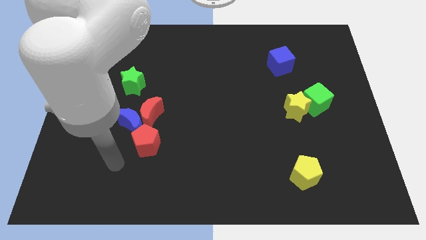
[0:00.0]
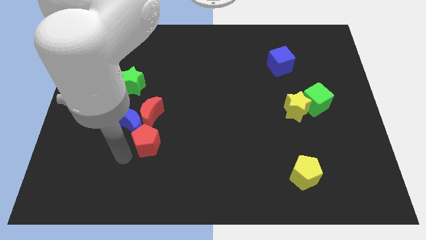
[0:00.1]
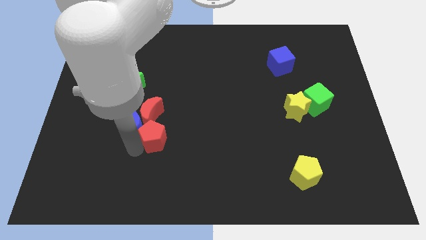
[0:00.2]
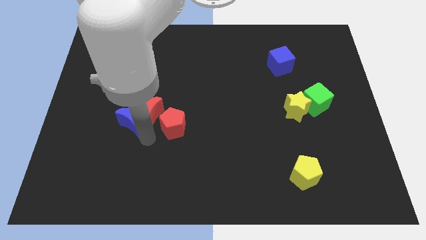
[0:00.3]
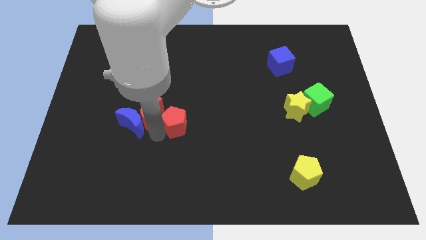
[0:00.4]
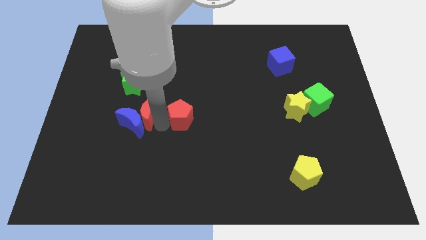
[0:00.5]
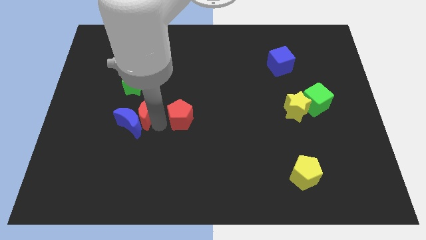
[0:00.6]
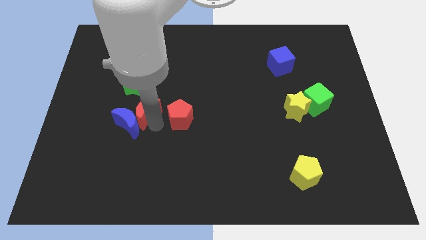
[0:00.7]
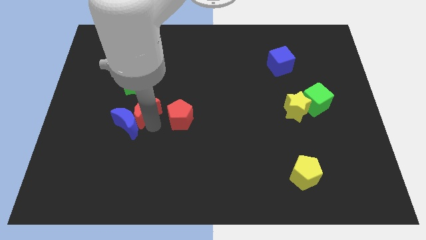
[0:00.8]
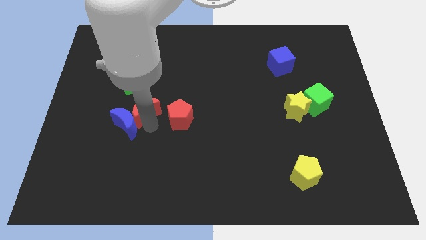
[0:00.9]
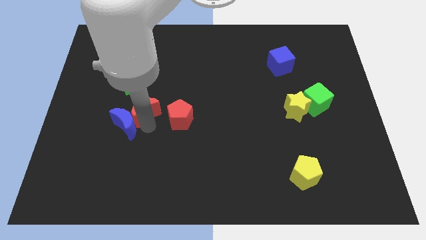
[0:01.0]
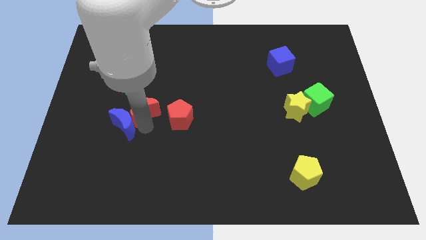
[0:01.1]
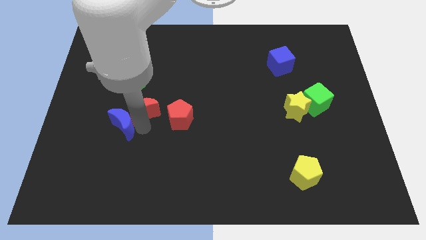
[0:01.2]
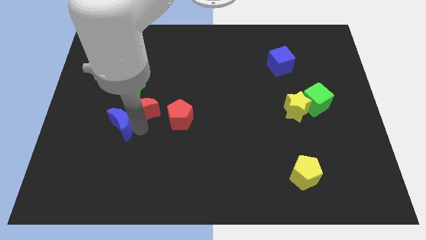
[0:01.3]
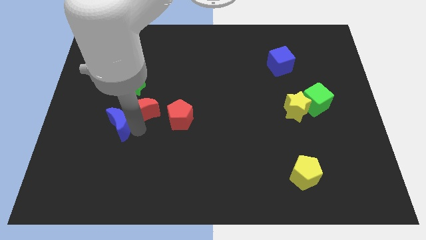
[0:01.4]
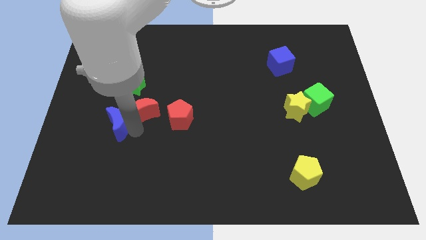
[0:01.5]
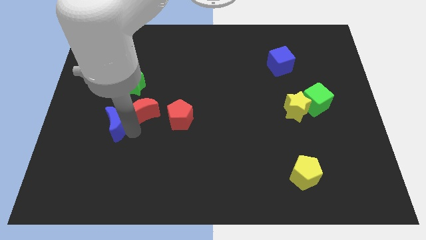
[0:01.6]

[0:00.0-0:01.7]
move the blue moon away from the red moon and red pentagon

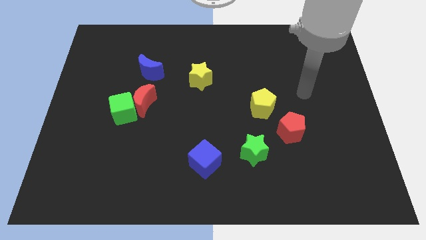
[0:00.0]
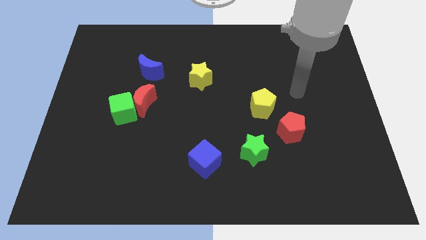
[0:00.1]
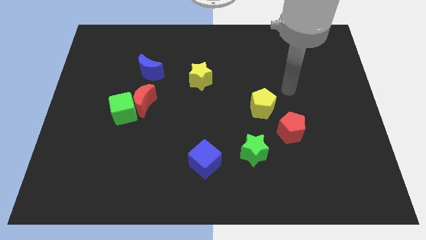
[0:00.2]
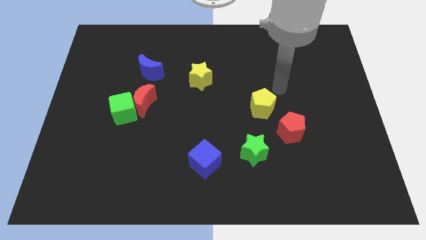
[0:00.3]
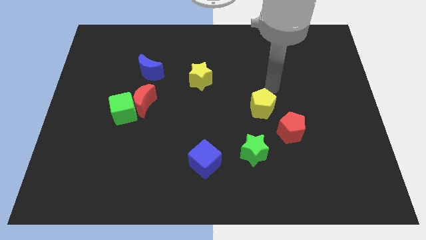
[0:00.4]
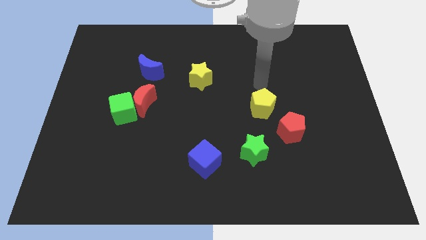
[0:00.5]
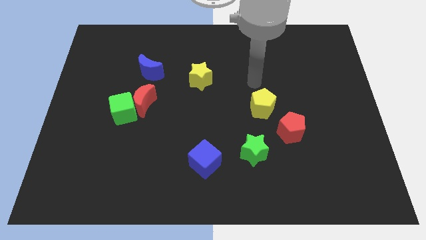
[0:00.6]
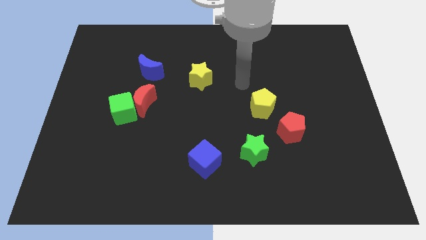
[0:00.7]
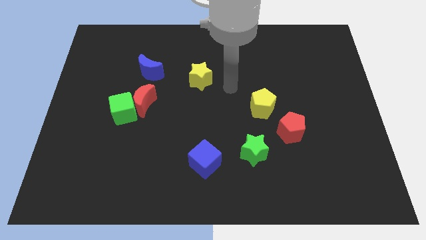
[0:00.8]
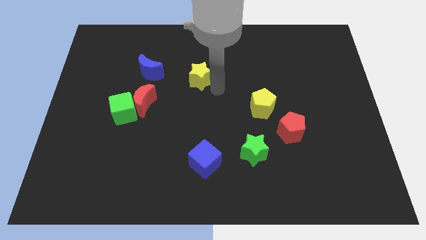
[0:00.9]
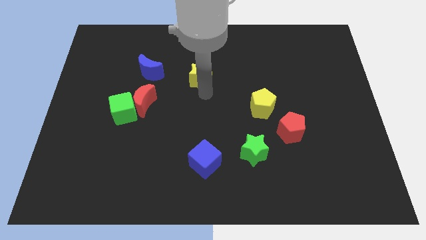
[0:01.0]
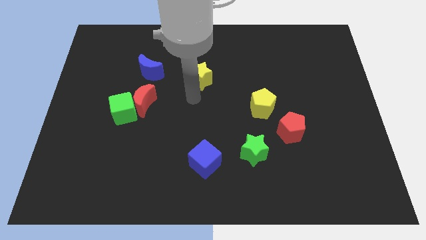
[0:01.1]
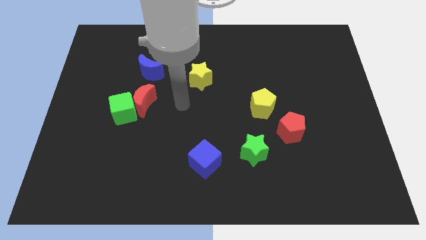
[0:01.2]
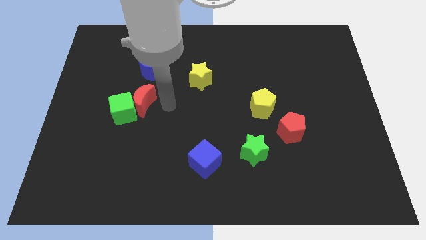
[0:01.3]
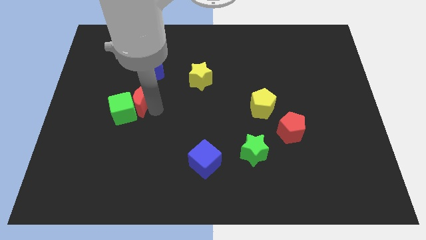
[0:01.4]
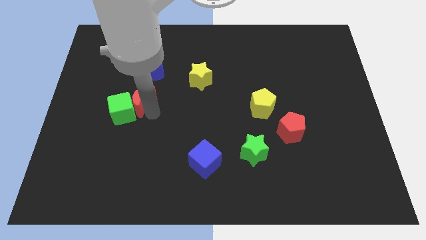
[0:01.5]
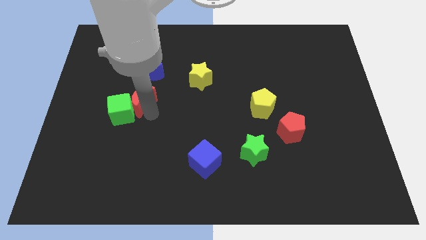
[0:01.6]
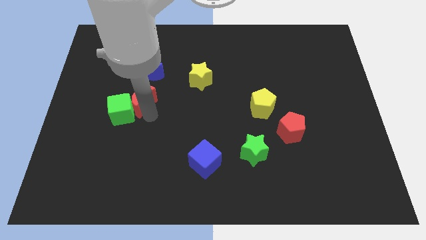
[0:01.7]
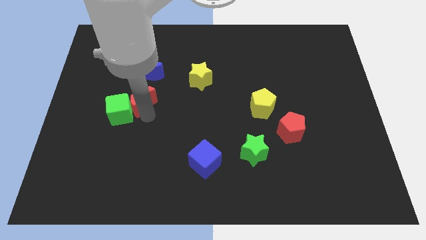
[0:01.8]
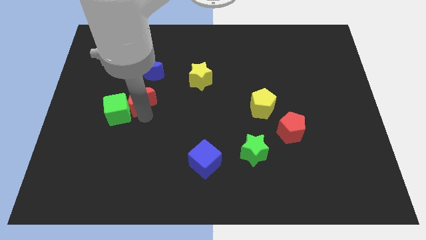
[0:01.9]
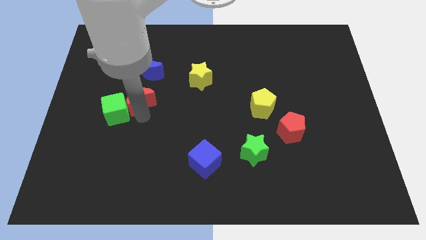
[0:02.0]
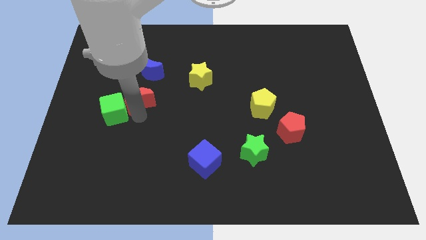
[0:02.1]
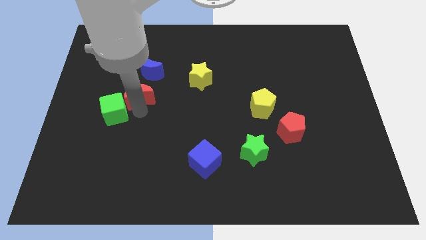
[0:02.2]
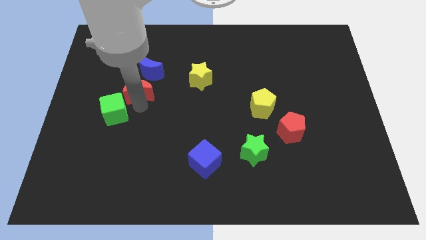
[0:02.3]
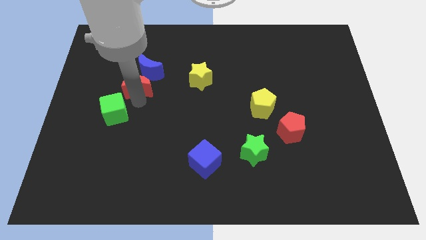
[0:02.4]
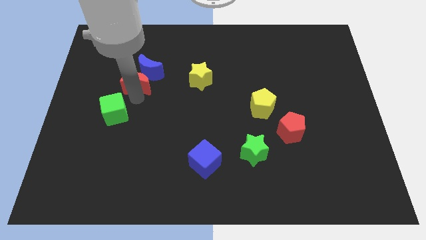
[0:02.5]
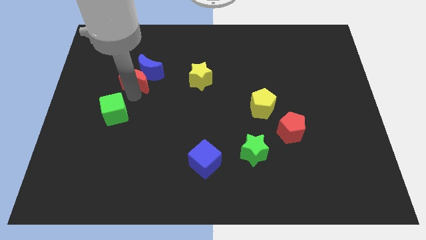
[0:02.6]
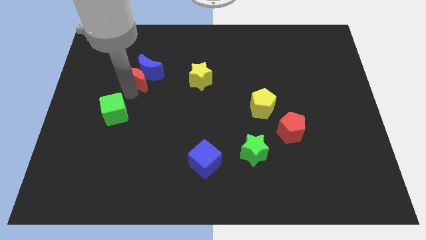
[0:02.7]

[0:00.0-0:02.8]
move the green cube away from the red moon

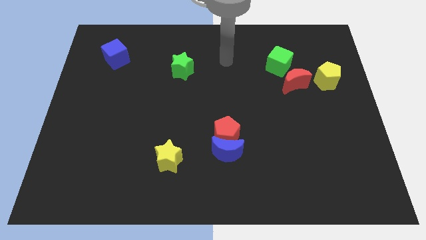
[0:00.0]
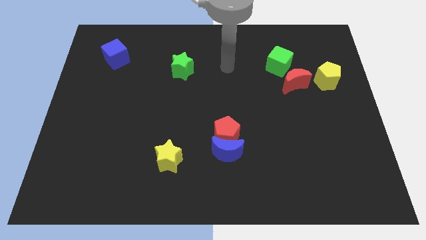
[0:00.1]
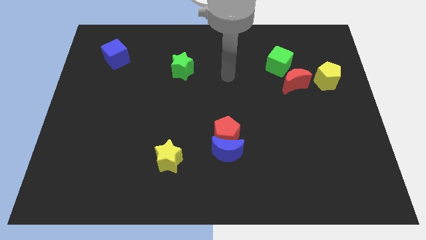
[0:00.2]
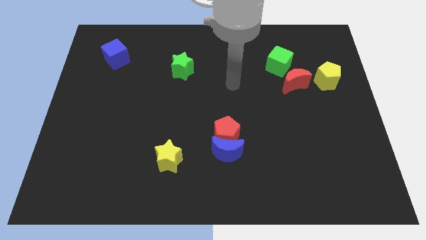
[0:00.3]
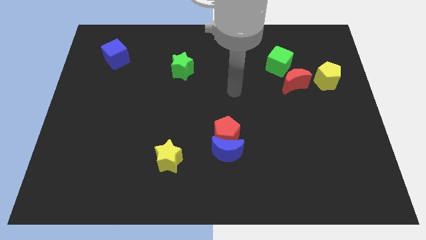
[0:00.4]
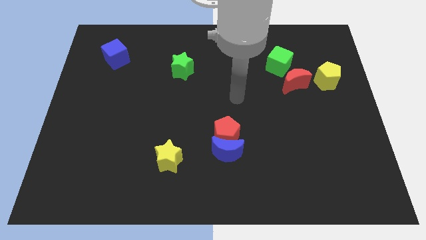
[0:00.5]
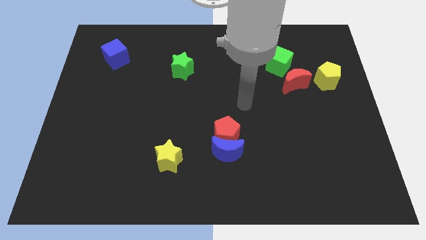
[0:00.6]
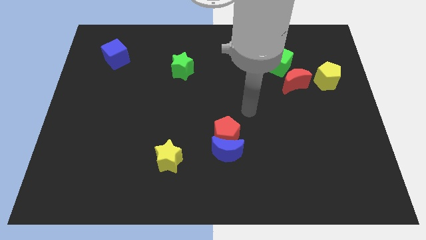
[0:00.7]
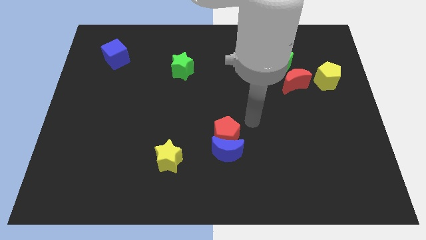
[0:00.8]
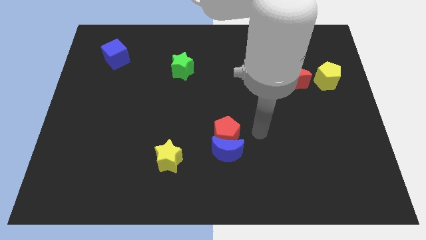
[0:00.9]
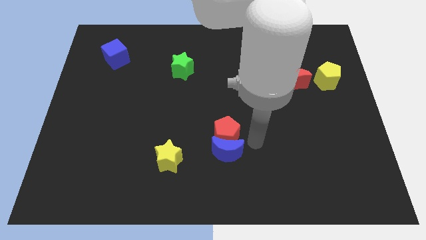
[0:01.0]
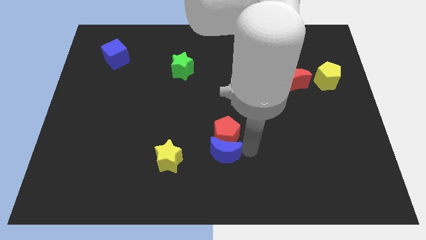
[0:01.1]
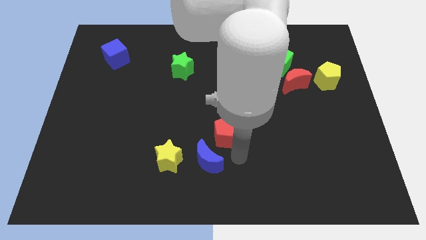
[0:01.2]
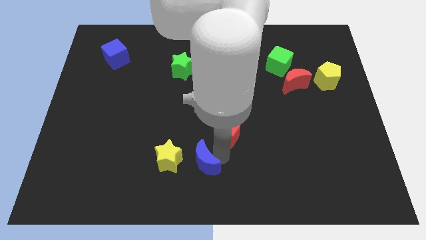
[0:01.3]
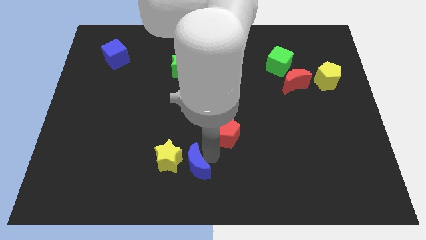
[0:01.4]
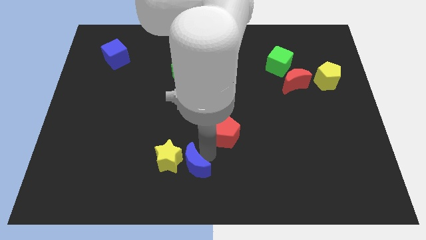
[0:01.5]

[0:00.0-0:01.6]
separate the red pentagon from the blue moon

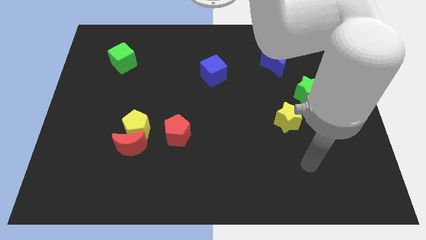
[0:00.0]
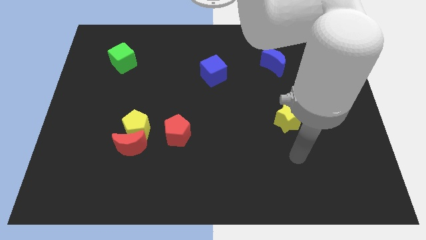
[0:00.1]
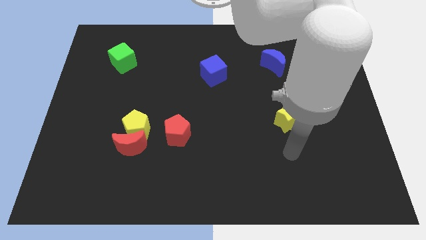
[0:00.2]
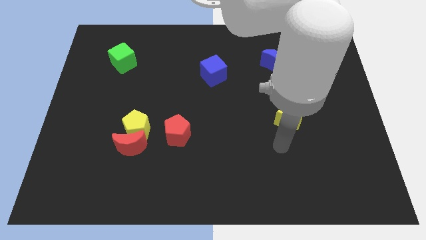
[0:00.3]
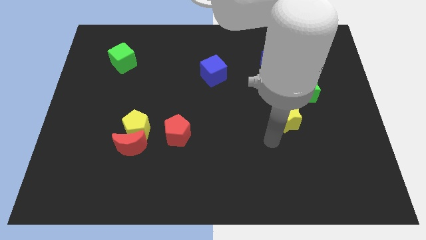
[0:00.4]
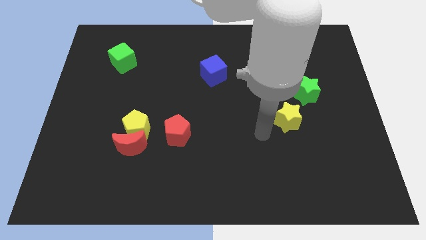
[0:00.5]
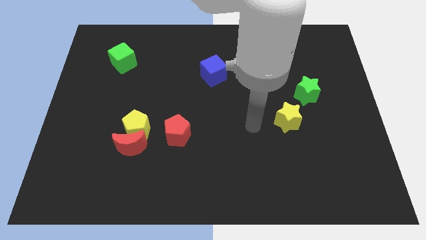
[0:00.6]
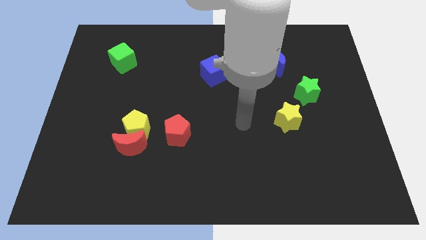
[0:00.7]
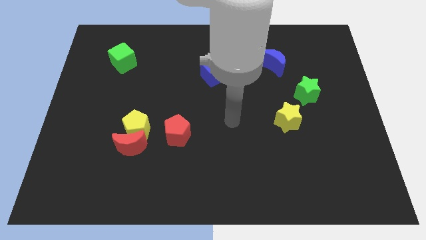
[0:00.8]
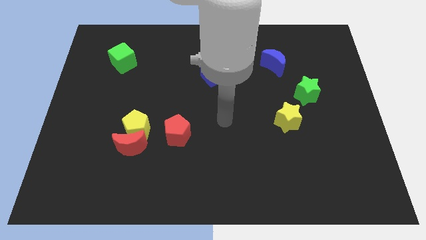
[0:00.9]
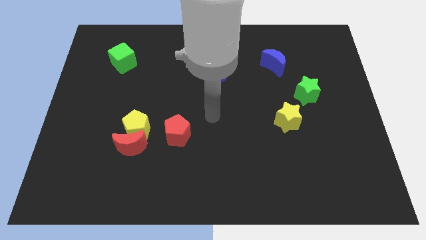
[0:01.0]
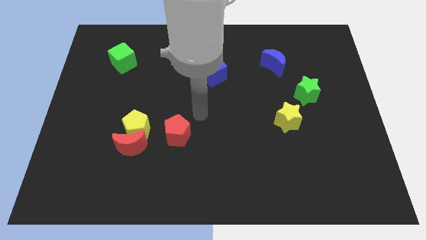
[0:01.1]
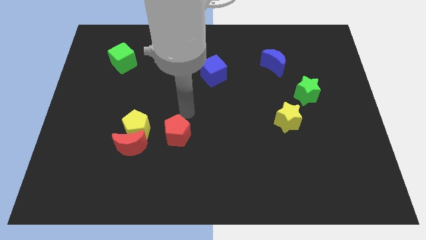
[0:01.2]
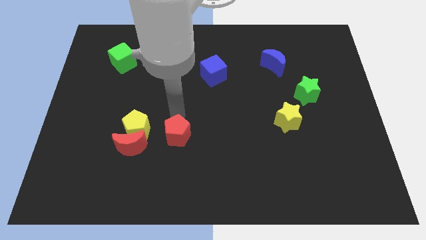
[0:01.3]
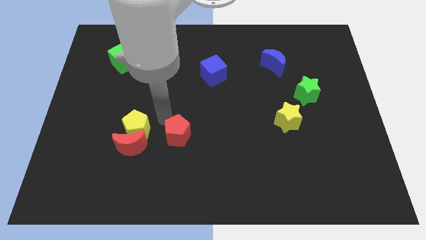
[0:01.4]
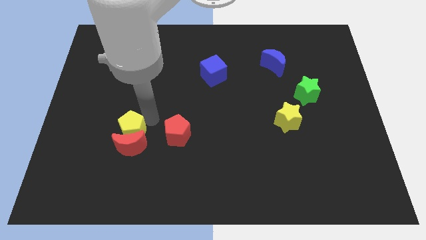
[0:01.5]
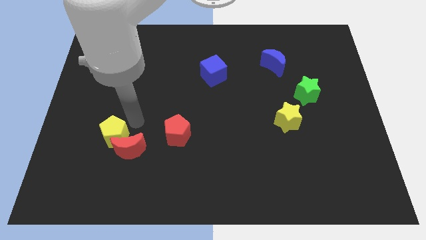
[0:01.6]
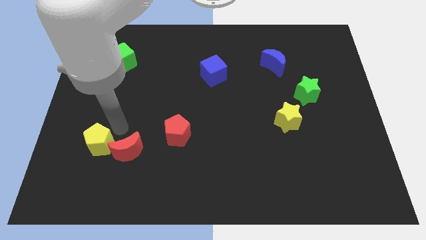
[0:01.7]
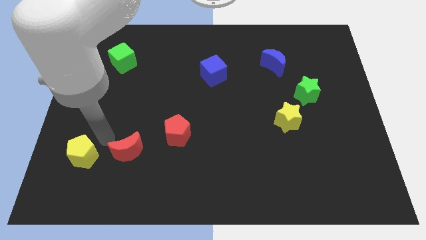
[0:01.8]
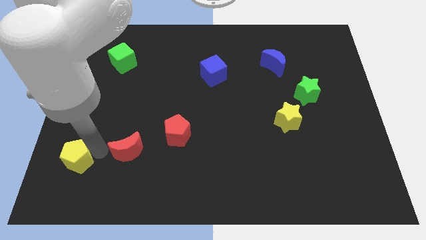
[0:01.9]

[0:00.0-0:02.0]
separate the red moon from the yellow pentagon

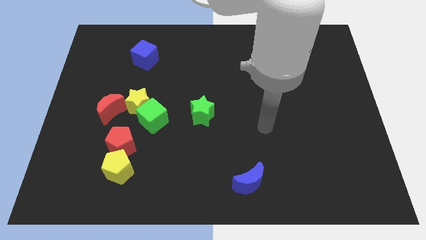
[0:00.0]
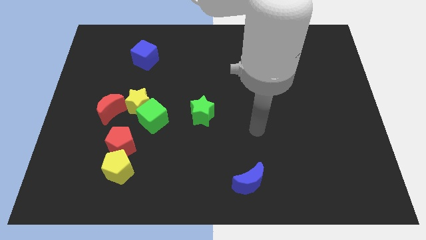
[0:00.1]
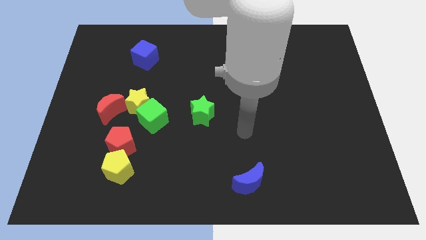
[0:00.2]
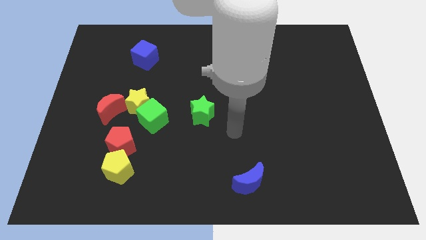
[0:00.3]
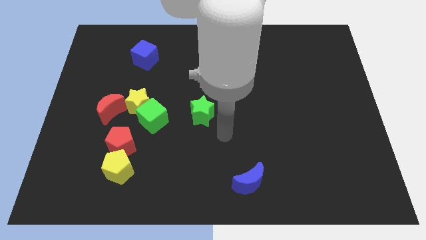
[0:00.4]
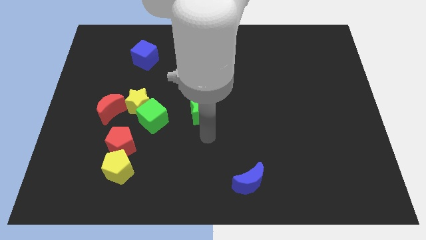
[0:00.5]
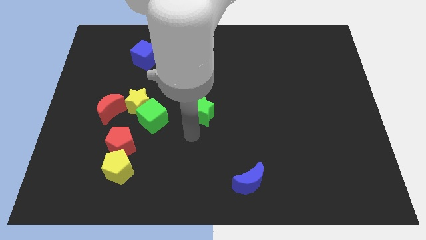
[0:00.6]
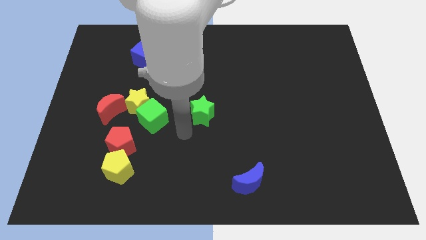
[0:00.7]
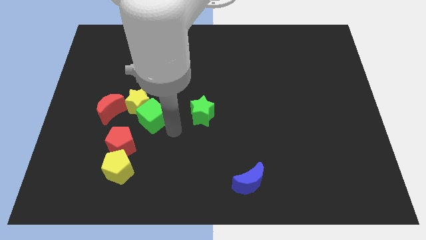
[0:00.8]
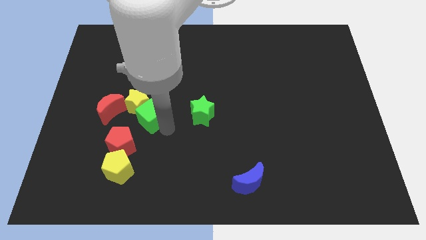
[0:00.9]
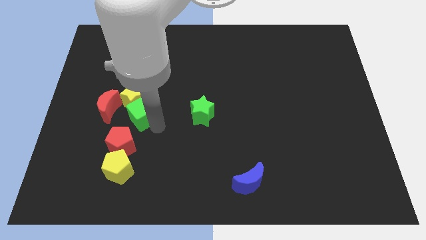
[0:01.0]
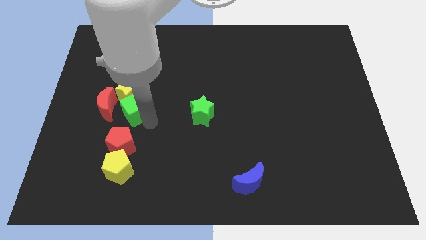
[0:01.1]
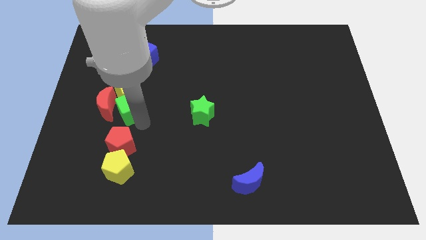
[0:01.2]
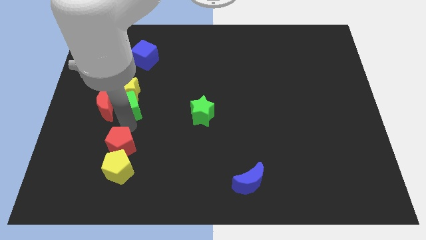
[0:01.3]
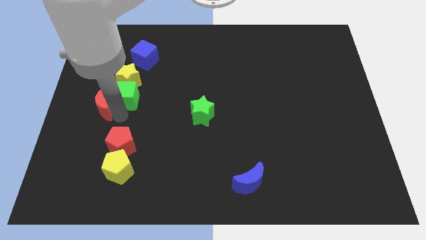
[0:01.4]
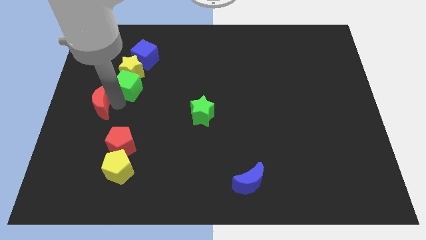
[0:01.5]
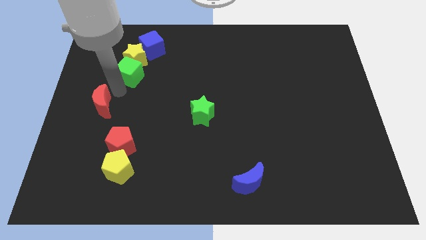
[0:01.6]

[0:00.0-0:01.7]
pull the yellow star apart from the green cube and red moon
